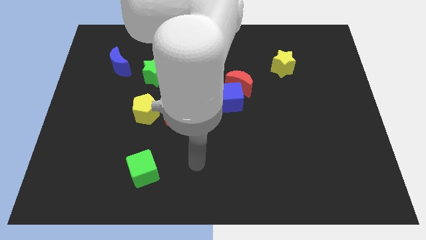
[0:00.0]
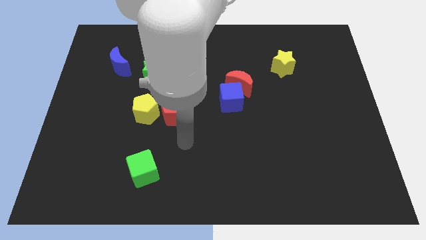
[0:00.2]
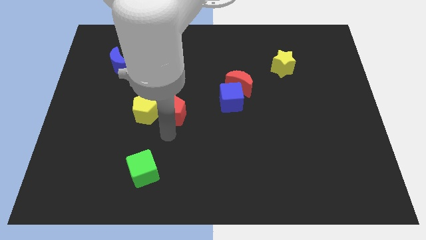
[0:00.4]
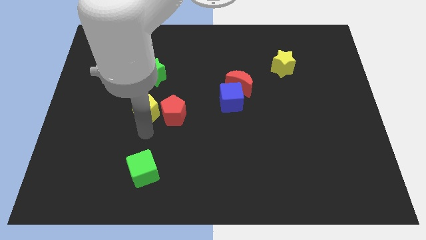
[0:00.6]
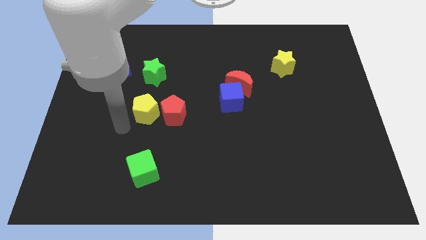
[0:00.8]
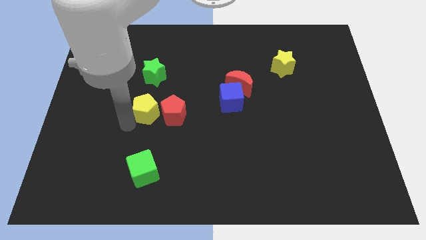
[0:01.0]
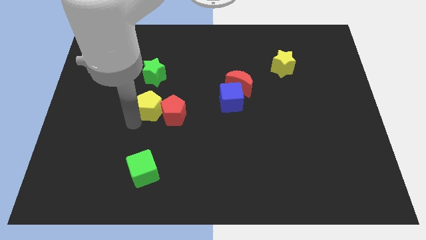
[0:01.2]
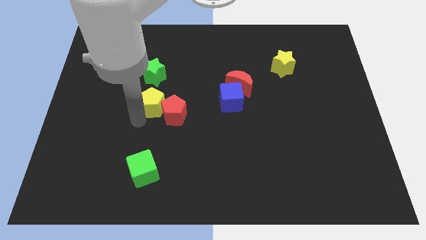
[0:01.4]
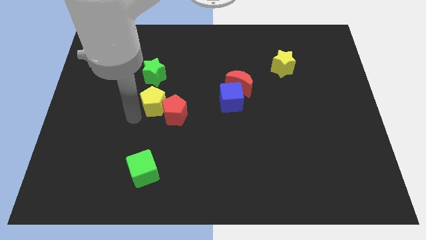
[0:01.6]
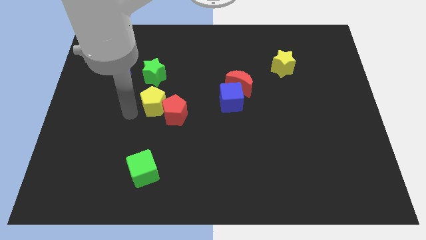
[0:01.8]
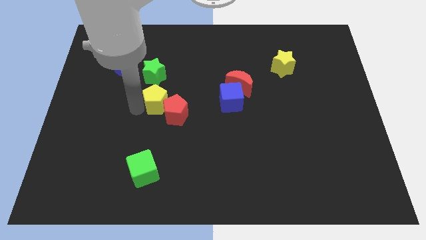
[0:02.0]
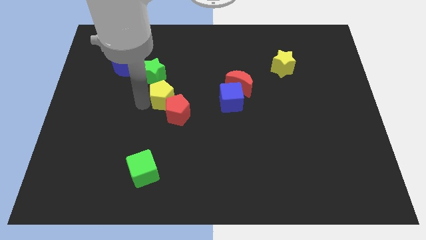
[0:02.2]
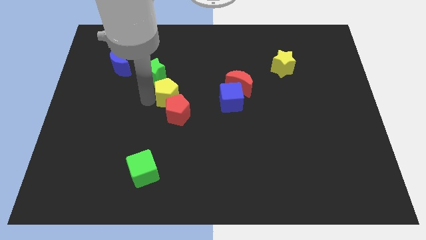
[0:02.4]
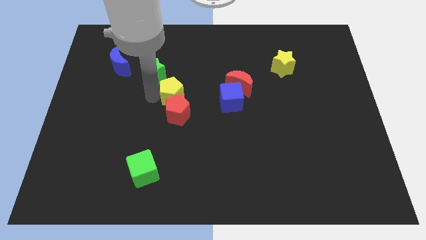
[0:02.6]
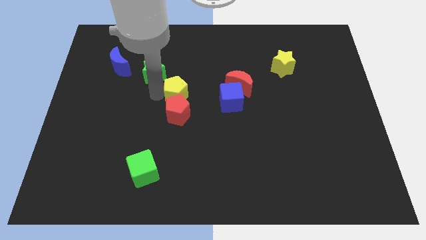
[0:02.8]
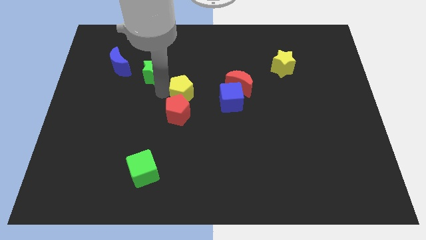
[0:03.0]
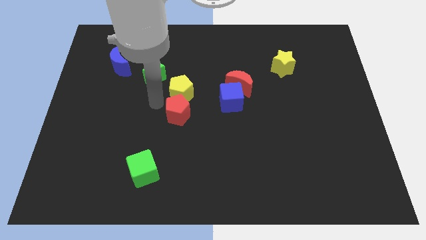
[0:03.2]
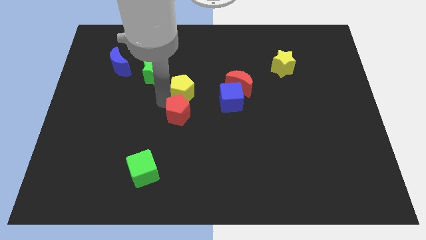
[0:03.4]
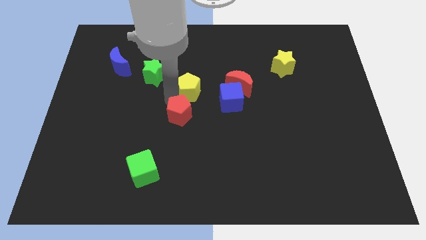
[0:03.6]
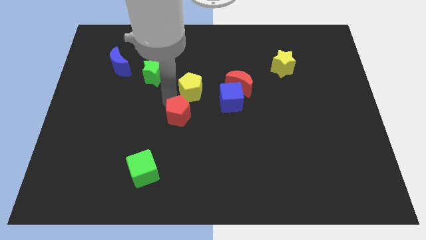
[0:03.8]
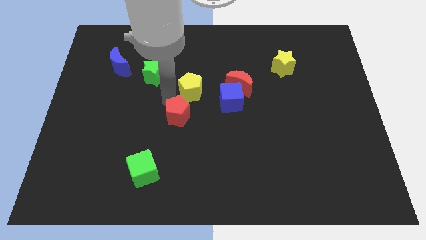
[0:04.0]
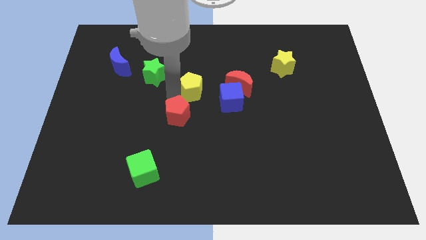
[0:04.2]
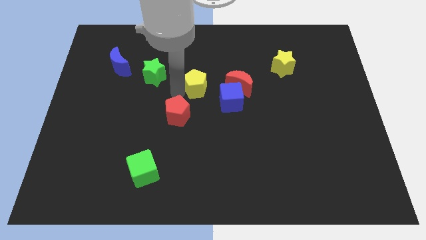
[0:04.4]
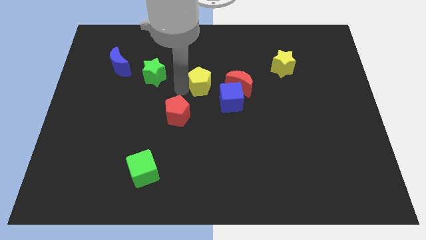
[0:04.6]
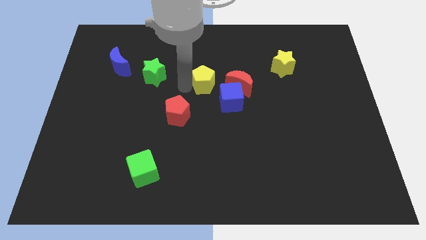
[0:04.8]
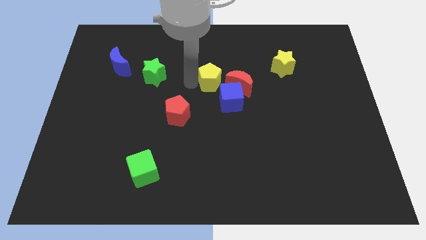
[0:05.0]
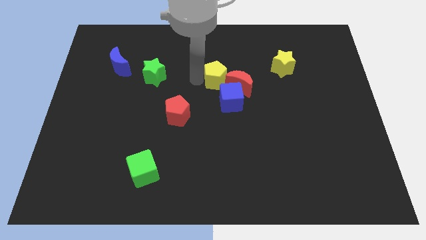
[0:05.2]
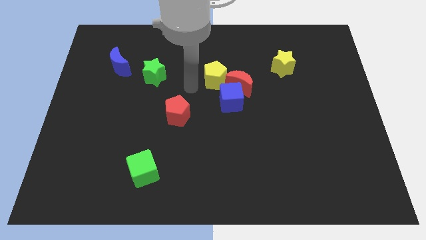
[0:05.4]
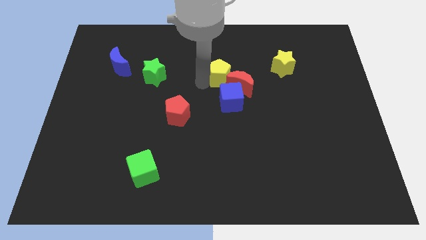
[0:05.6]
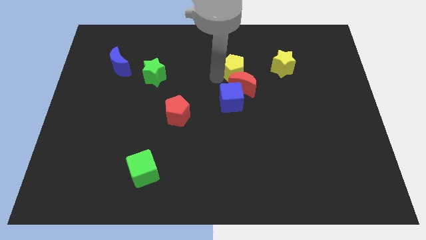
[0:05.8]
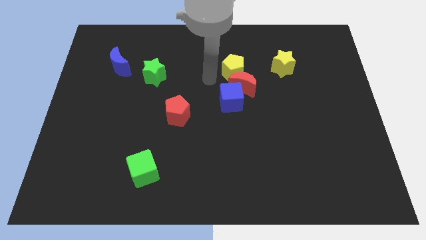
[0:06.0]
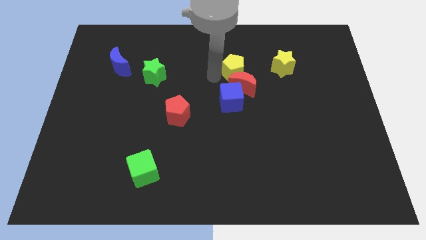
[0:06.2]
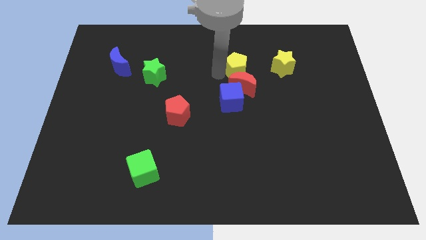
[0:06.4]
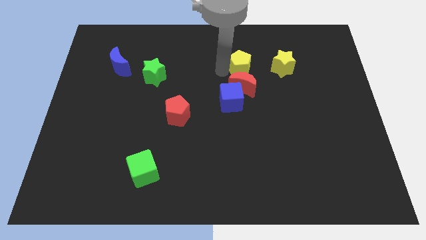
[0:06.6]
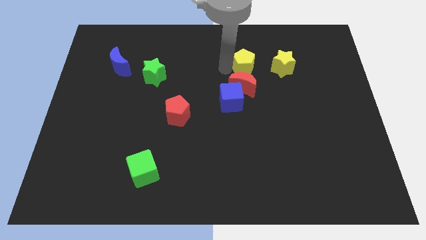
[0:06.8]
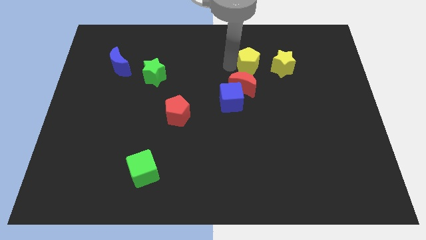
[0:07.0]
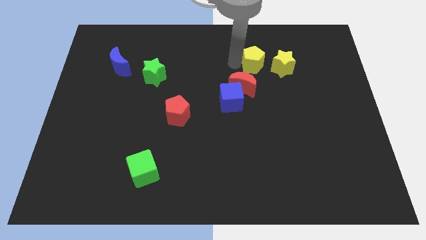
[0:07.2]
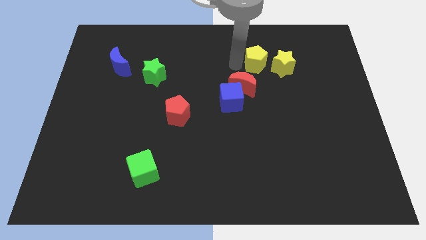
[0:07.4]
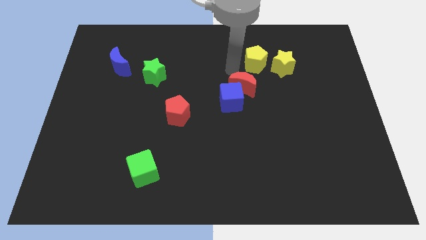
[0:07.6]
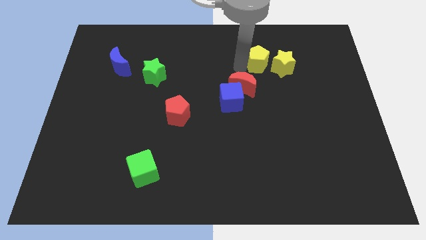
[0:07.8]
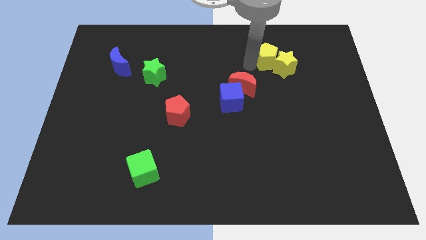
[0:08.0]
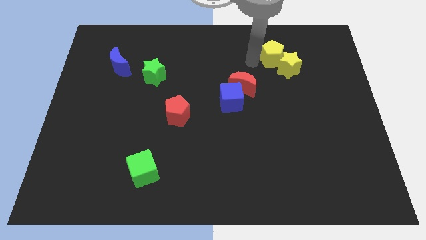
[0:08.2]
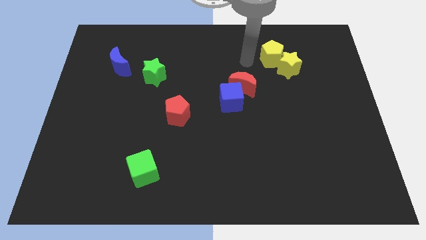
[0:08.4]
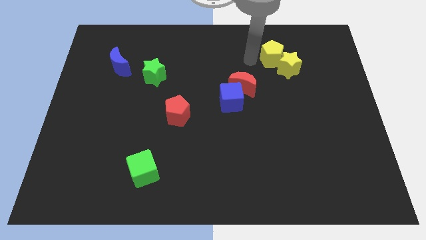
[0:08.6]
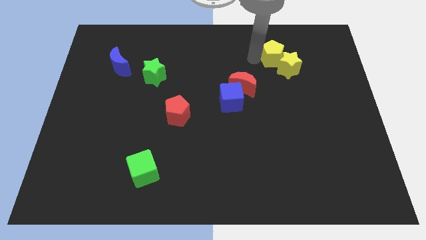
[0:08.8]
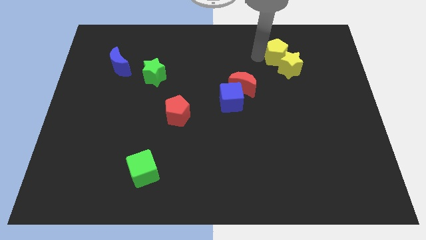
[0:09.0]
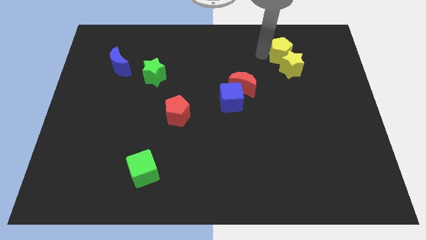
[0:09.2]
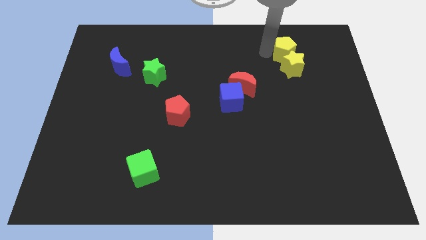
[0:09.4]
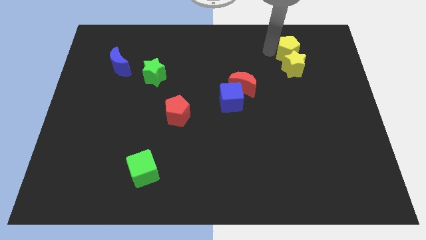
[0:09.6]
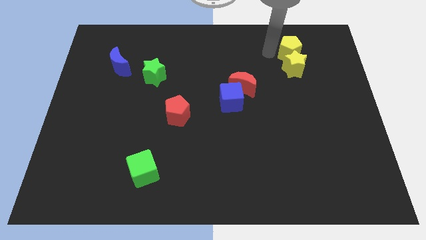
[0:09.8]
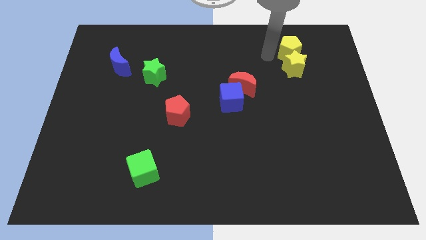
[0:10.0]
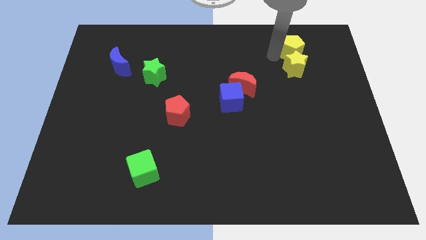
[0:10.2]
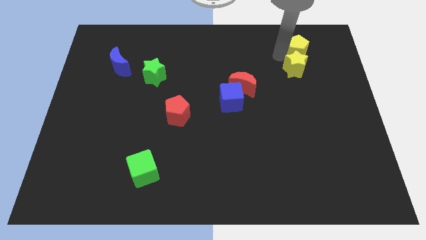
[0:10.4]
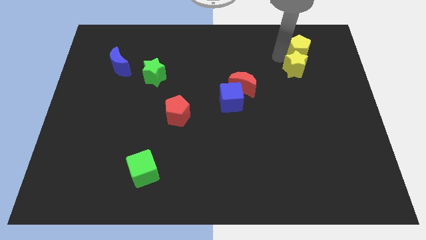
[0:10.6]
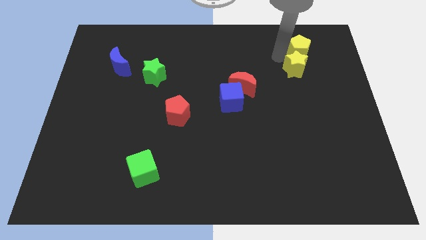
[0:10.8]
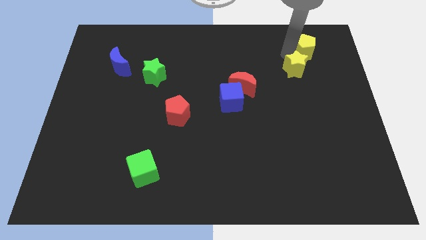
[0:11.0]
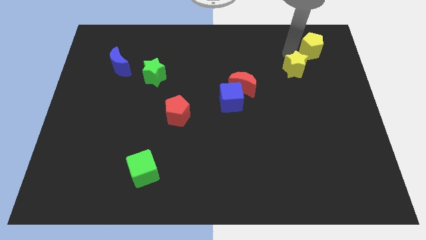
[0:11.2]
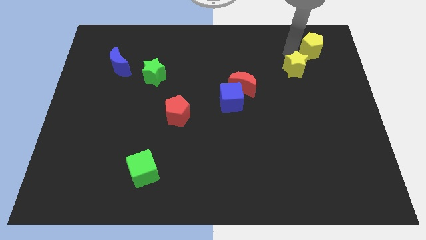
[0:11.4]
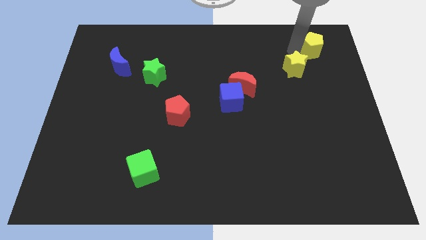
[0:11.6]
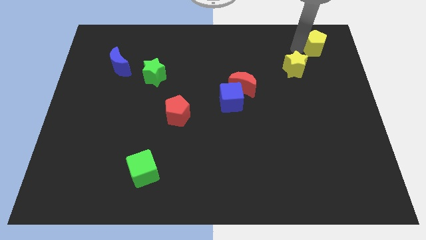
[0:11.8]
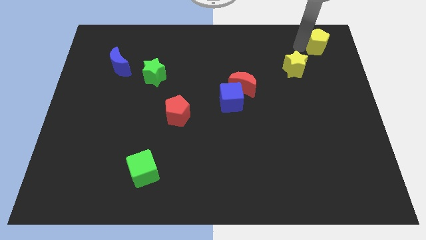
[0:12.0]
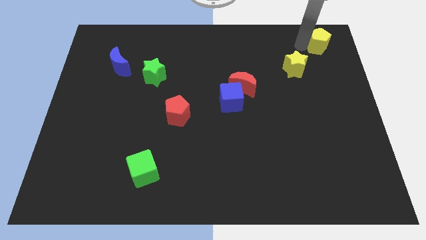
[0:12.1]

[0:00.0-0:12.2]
put the yellow pentagon to the top right corner

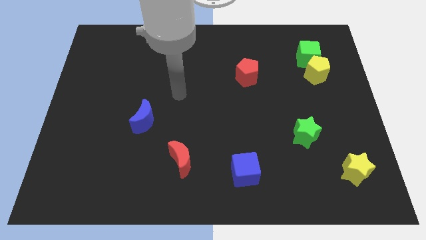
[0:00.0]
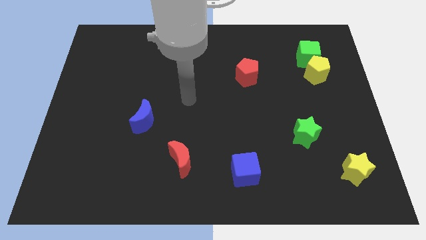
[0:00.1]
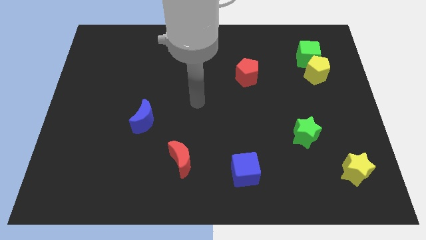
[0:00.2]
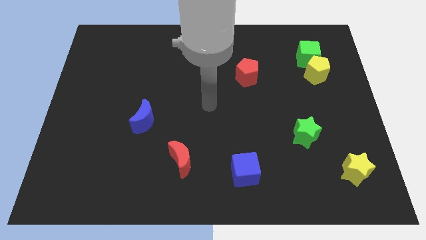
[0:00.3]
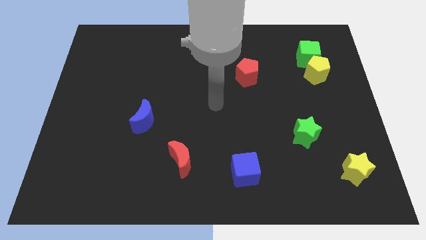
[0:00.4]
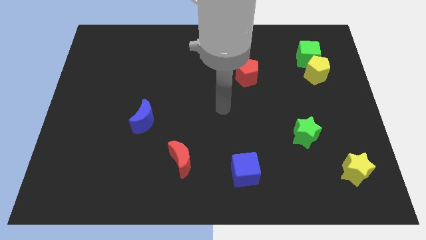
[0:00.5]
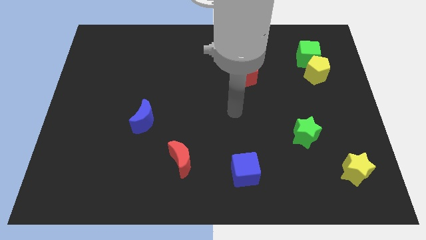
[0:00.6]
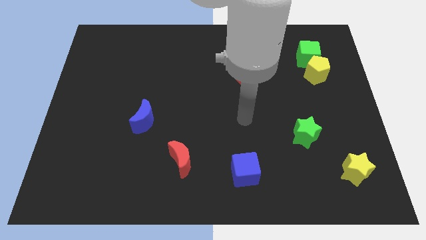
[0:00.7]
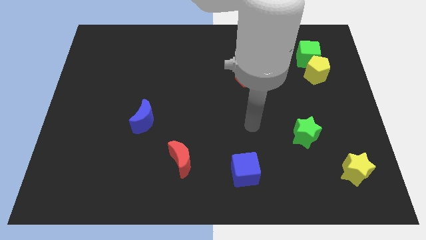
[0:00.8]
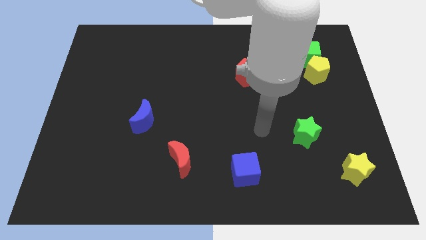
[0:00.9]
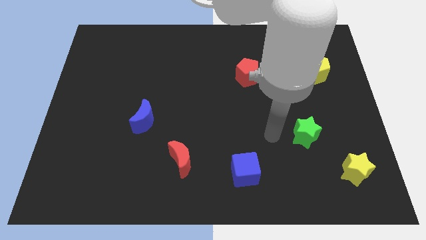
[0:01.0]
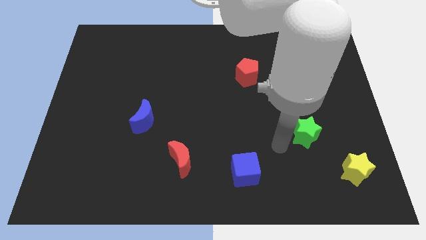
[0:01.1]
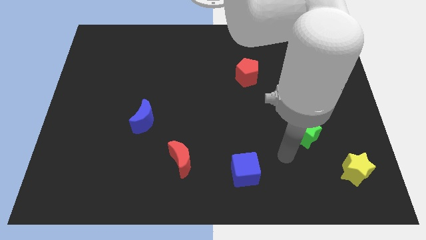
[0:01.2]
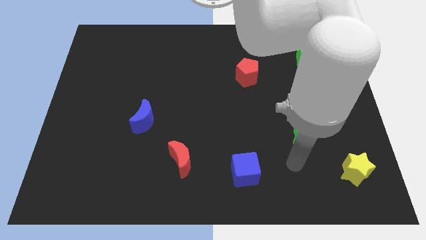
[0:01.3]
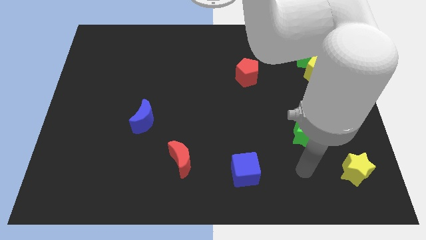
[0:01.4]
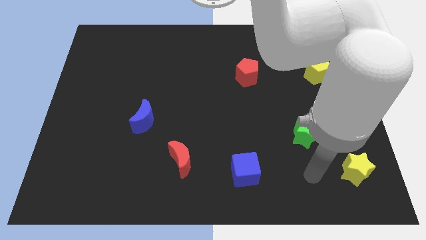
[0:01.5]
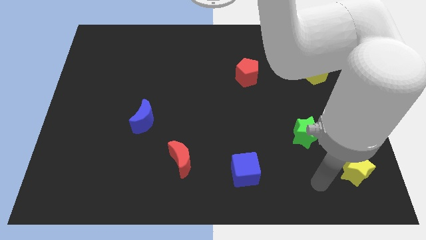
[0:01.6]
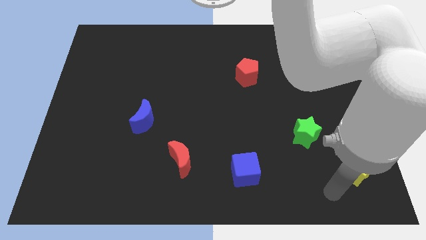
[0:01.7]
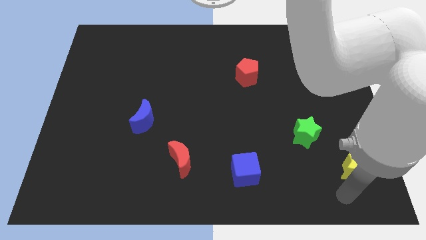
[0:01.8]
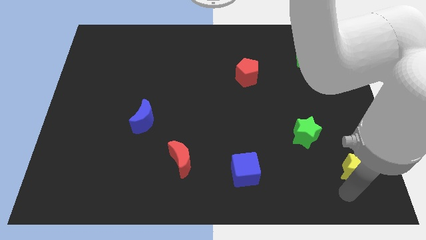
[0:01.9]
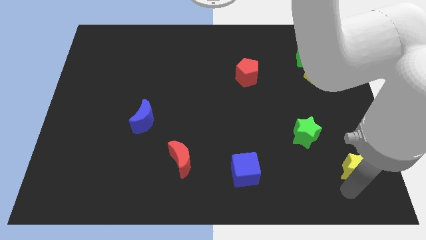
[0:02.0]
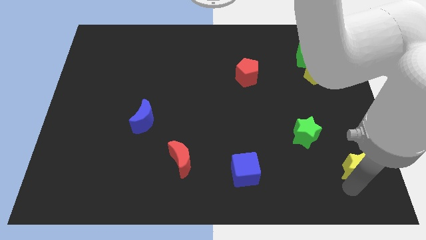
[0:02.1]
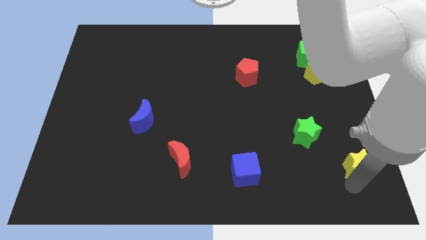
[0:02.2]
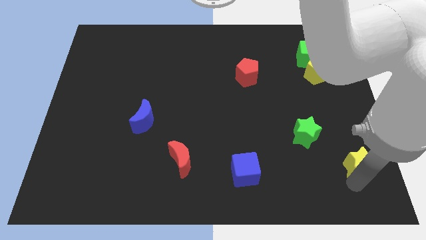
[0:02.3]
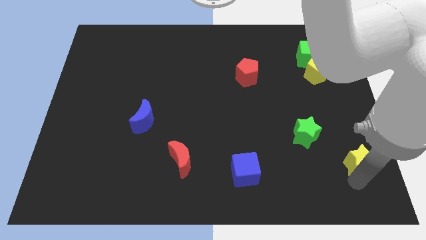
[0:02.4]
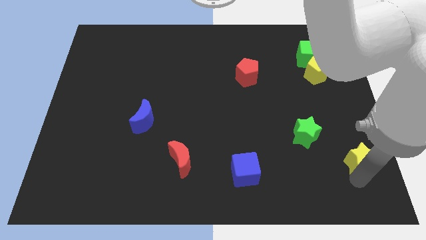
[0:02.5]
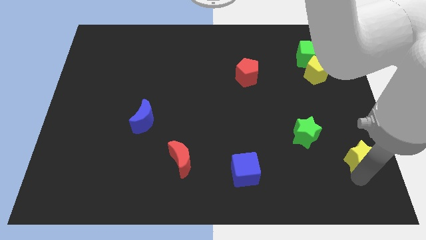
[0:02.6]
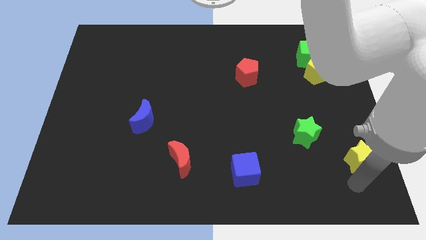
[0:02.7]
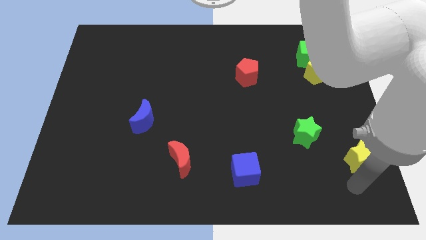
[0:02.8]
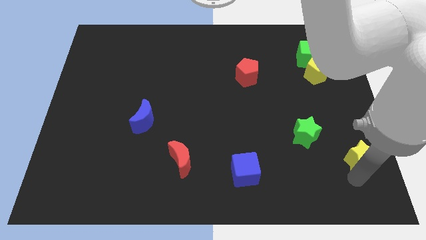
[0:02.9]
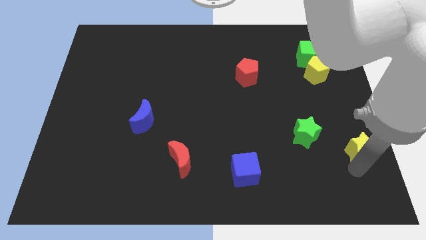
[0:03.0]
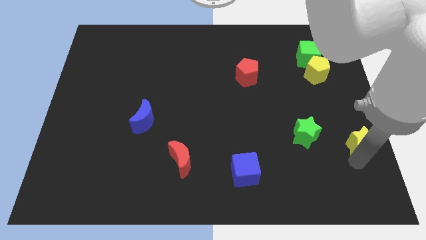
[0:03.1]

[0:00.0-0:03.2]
slide the yellow star to the right side
